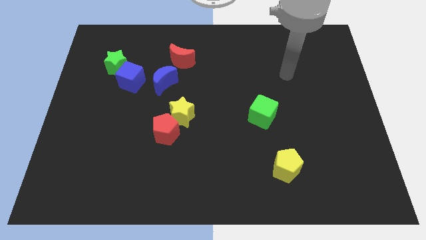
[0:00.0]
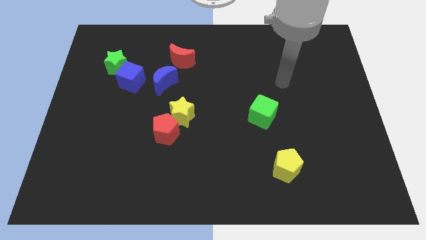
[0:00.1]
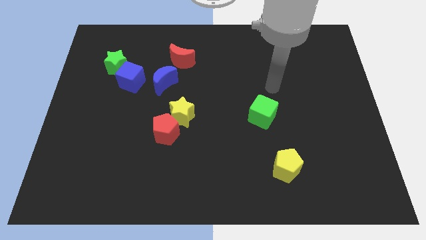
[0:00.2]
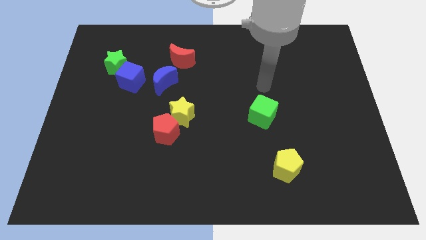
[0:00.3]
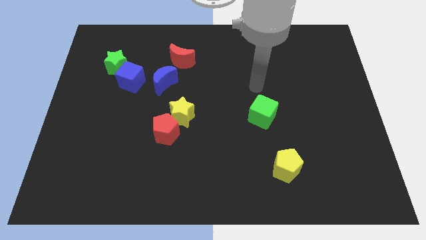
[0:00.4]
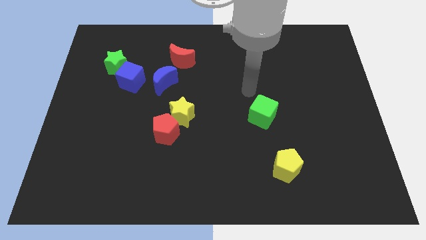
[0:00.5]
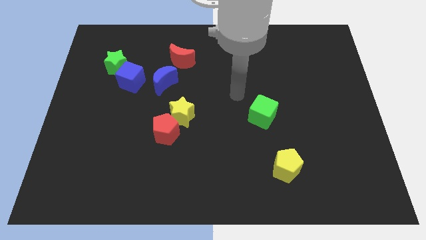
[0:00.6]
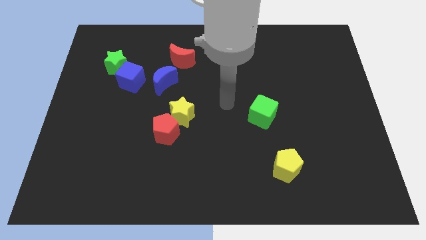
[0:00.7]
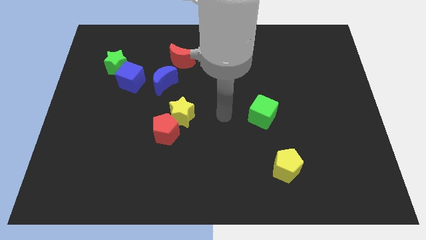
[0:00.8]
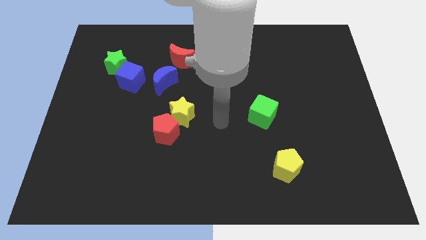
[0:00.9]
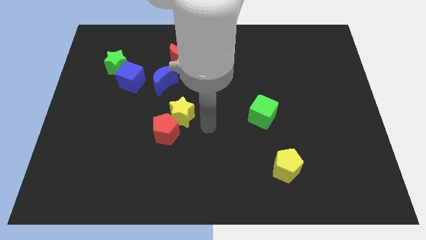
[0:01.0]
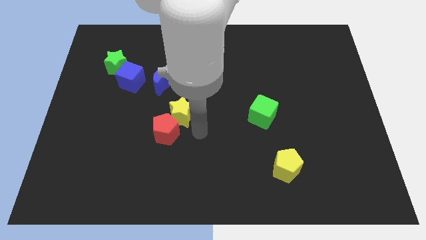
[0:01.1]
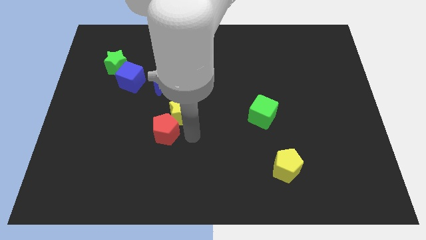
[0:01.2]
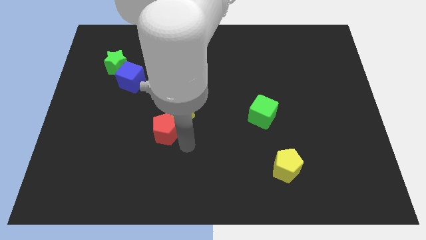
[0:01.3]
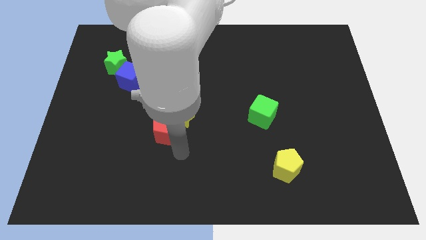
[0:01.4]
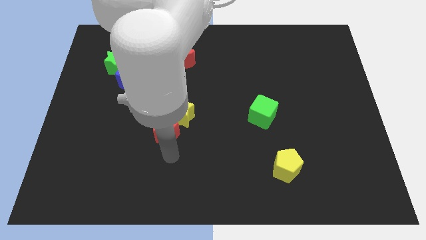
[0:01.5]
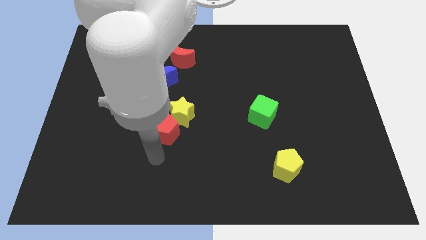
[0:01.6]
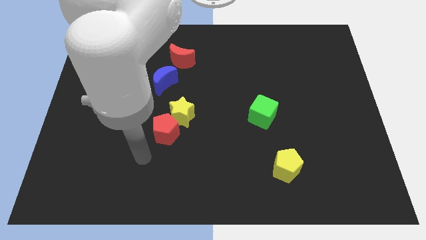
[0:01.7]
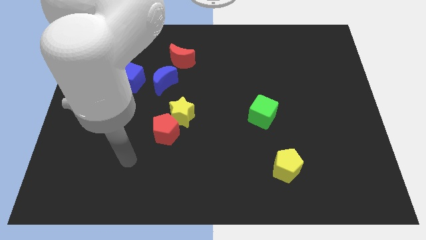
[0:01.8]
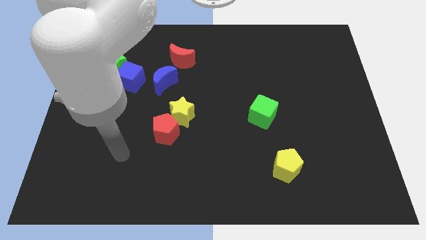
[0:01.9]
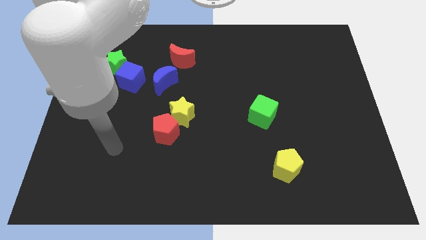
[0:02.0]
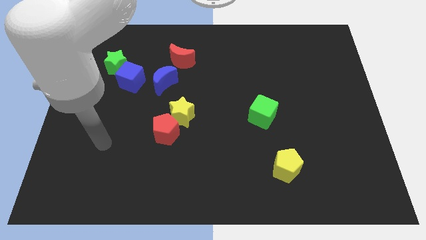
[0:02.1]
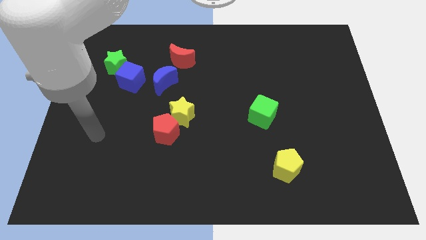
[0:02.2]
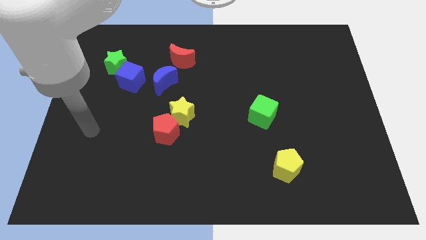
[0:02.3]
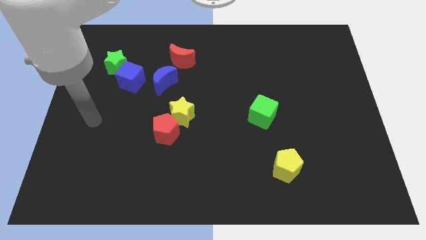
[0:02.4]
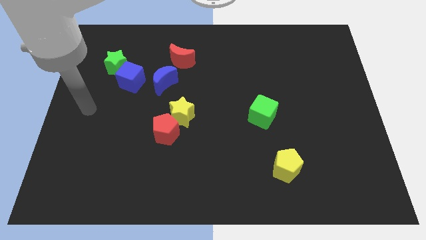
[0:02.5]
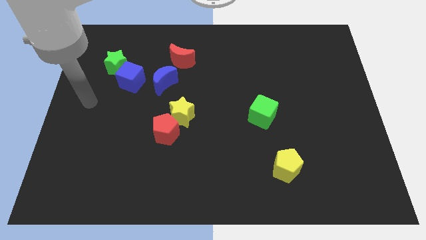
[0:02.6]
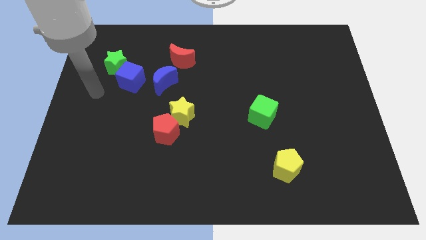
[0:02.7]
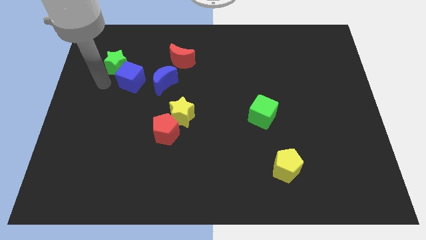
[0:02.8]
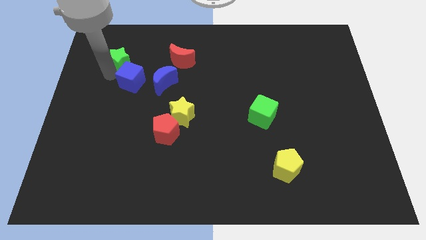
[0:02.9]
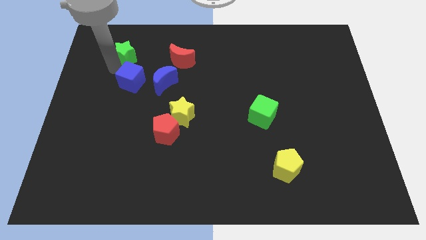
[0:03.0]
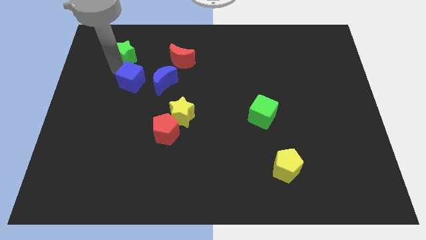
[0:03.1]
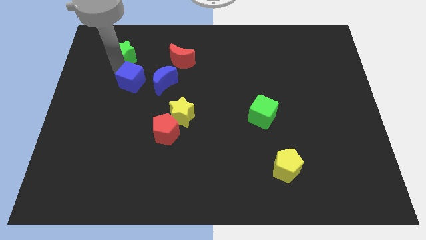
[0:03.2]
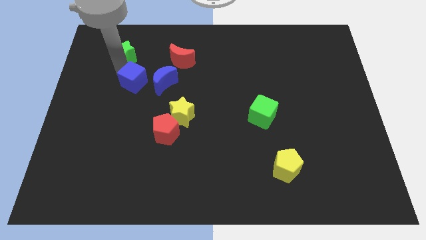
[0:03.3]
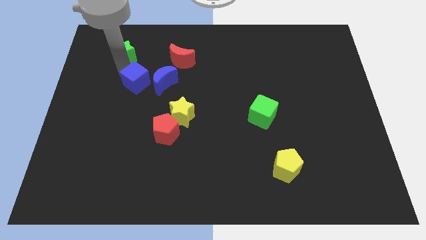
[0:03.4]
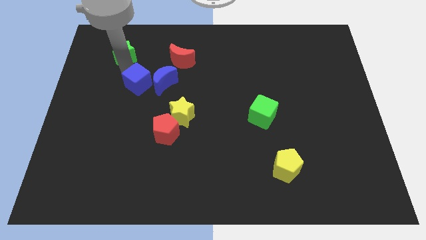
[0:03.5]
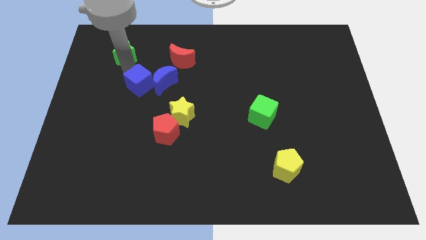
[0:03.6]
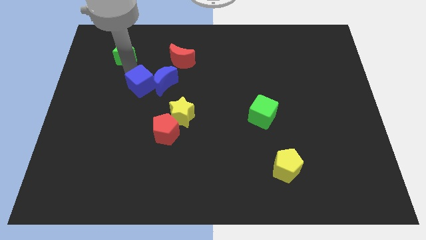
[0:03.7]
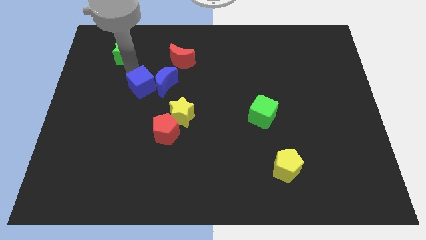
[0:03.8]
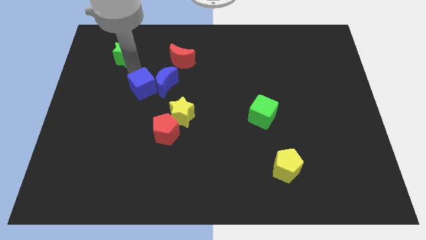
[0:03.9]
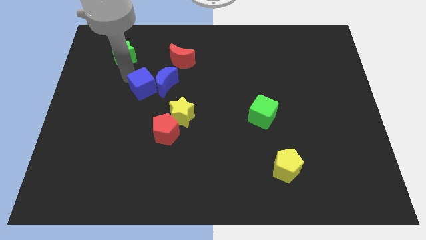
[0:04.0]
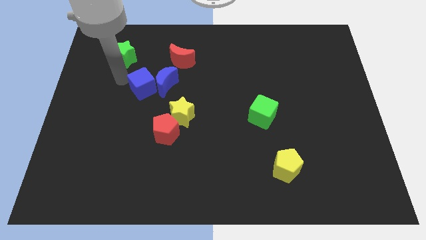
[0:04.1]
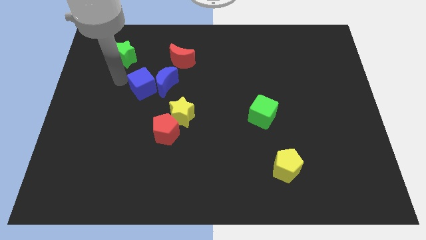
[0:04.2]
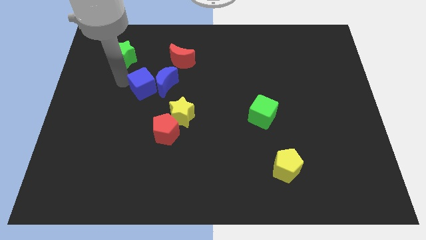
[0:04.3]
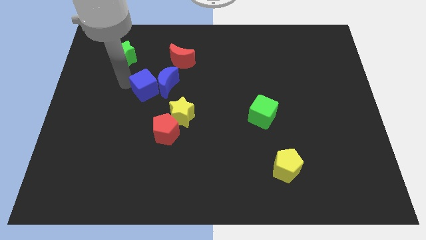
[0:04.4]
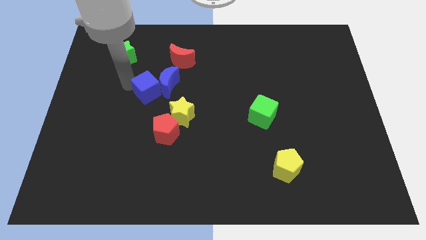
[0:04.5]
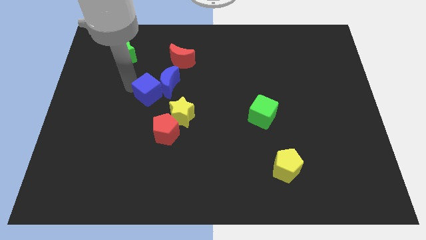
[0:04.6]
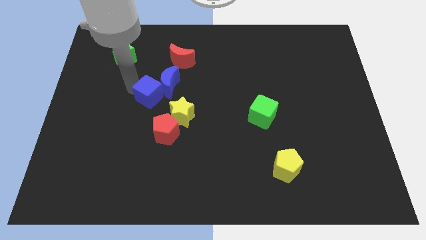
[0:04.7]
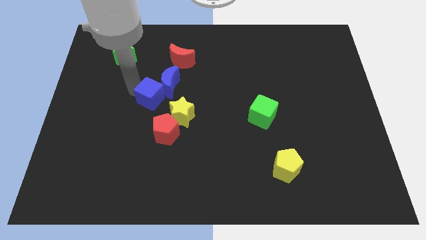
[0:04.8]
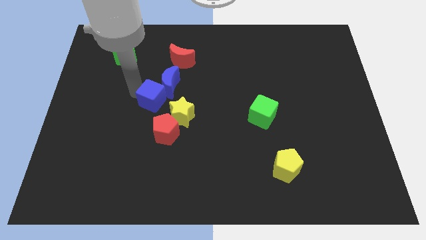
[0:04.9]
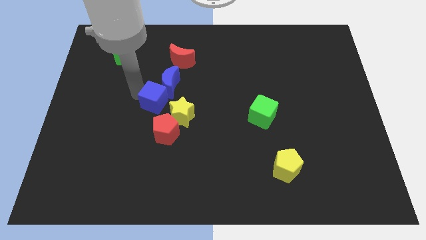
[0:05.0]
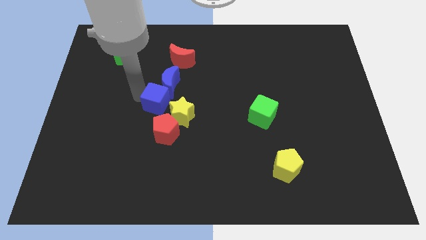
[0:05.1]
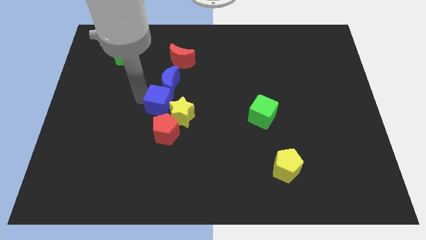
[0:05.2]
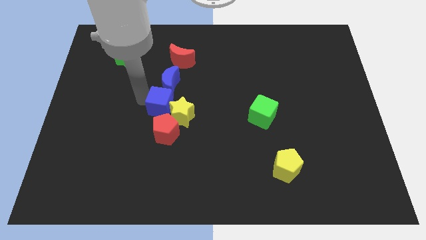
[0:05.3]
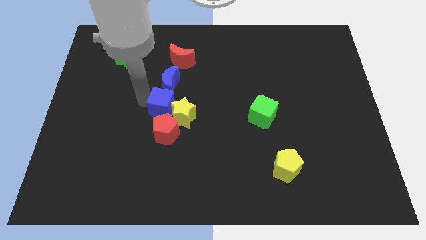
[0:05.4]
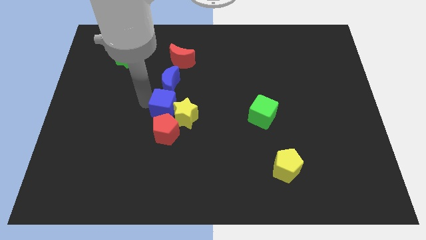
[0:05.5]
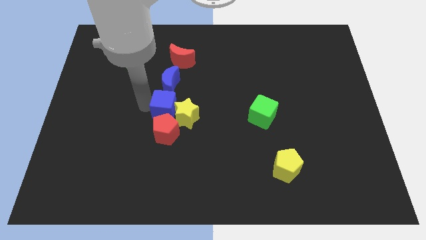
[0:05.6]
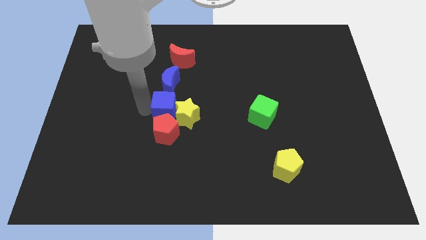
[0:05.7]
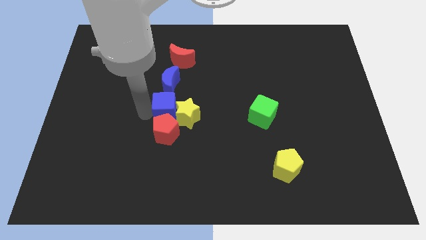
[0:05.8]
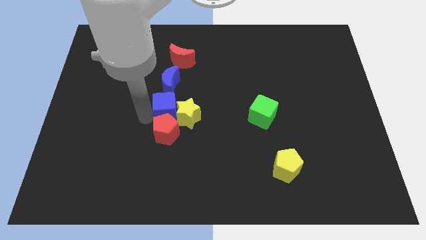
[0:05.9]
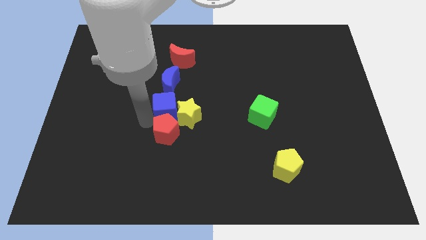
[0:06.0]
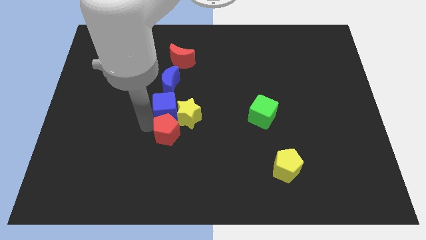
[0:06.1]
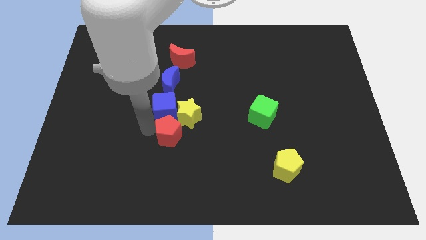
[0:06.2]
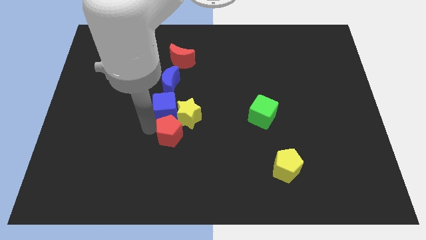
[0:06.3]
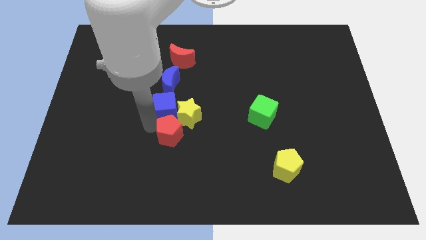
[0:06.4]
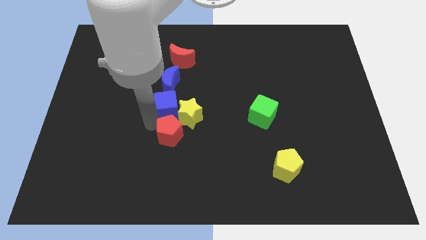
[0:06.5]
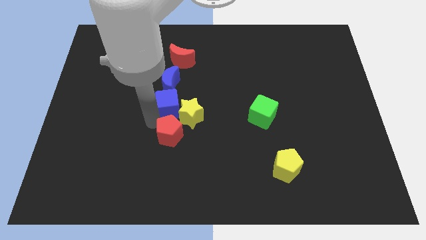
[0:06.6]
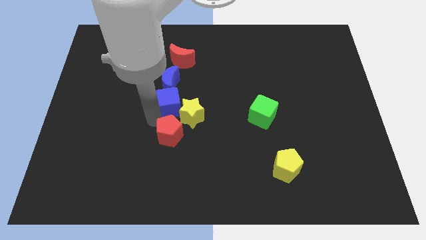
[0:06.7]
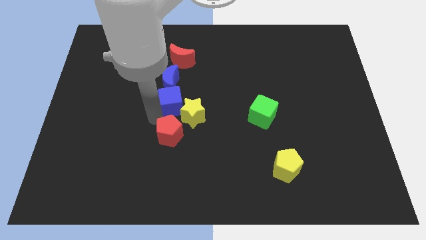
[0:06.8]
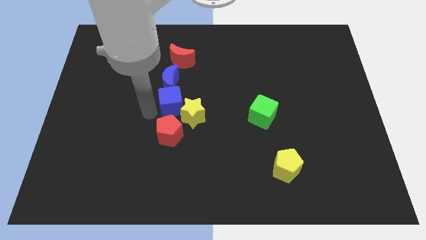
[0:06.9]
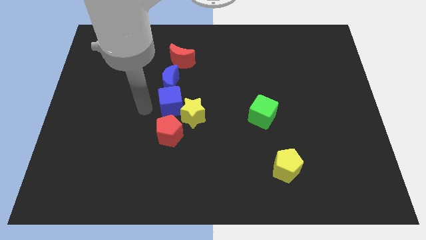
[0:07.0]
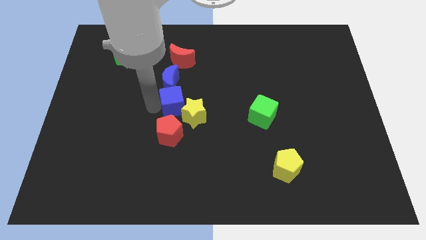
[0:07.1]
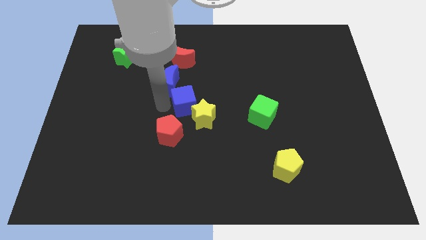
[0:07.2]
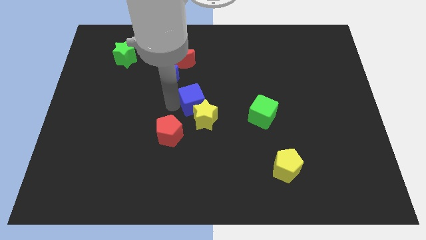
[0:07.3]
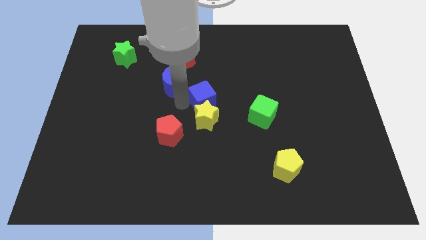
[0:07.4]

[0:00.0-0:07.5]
push the blue cube to the top right side of the yellow star
